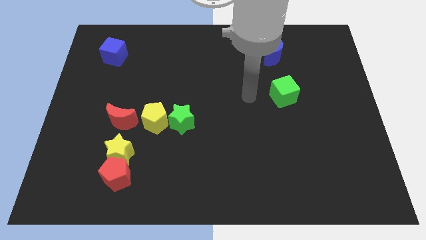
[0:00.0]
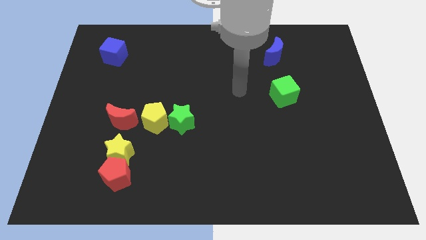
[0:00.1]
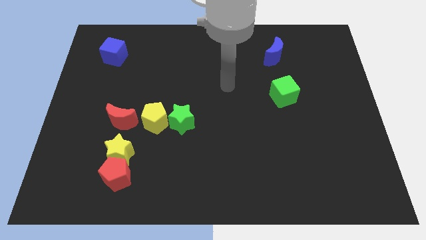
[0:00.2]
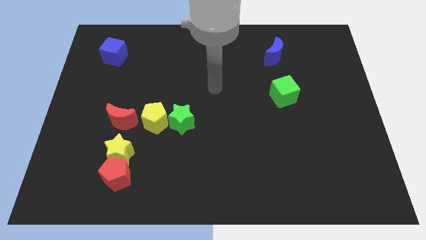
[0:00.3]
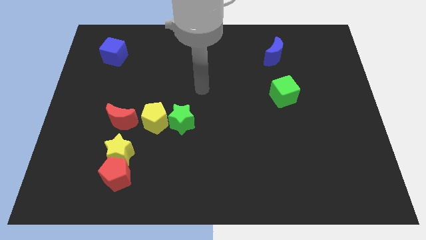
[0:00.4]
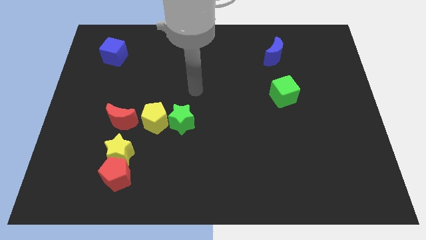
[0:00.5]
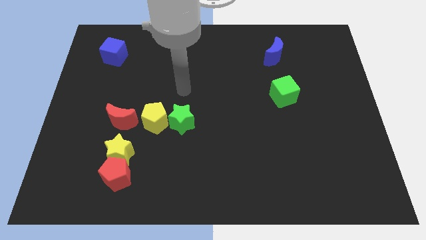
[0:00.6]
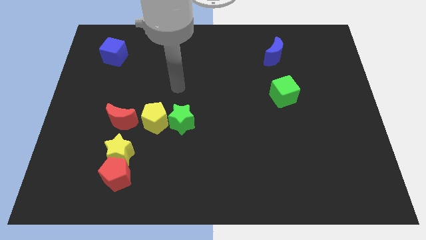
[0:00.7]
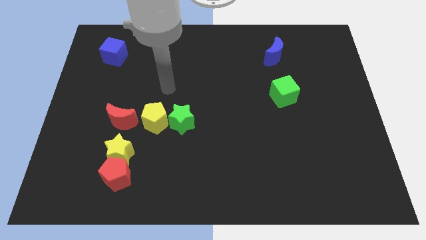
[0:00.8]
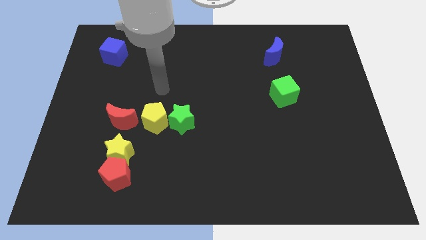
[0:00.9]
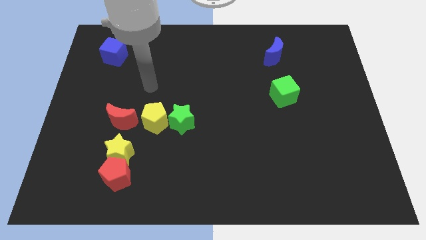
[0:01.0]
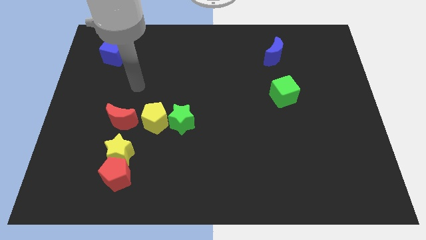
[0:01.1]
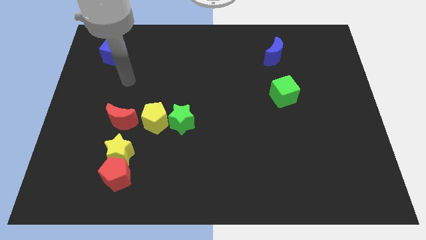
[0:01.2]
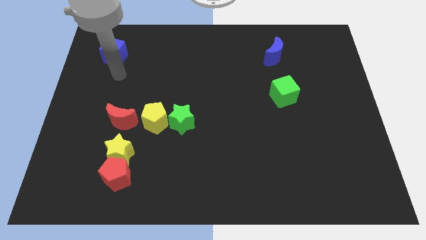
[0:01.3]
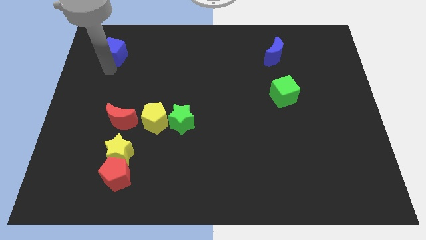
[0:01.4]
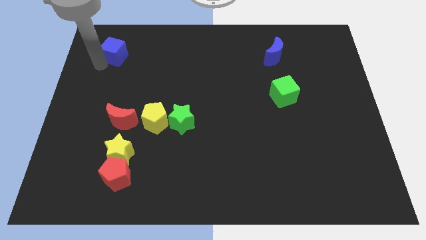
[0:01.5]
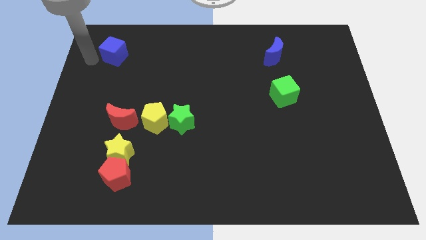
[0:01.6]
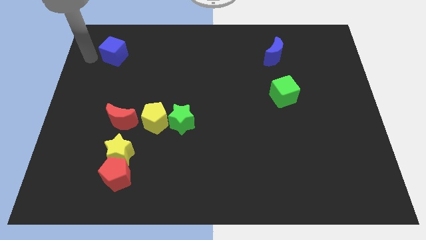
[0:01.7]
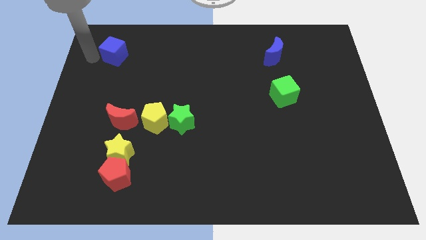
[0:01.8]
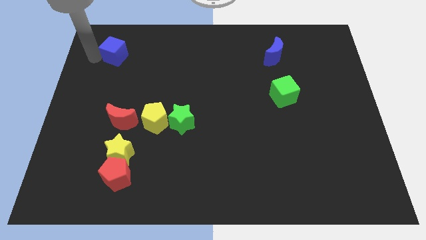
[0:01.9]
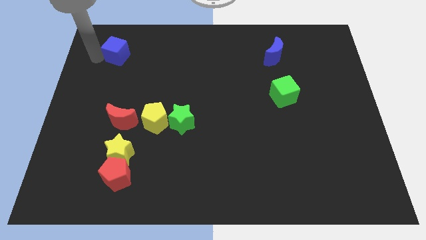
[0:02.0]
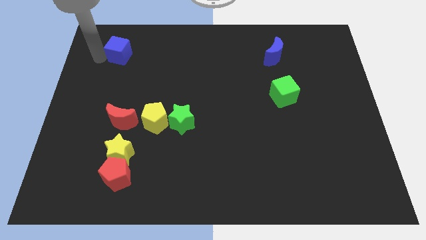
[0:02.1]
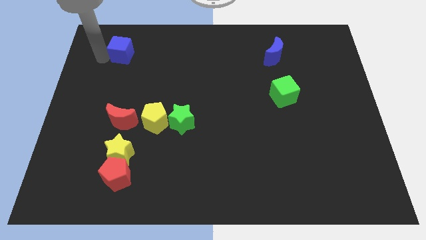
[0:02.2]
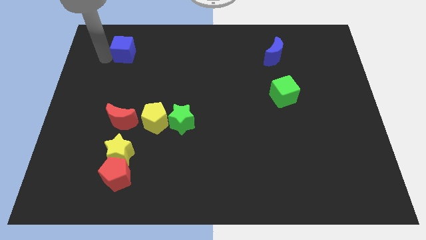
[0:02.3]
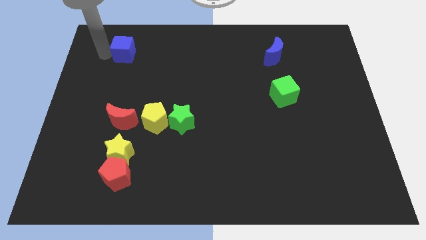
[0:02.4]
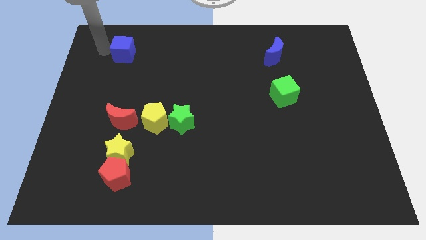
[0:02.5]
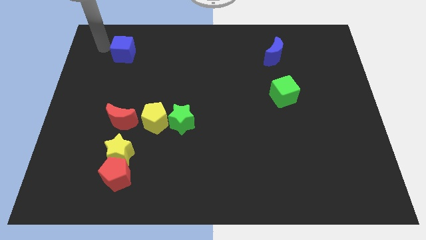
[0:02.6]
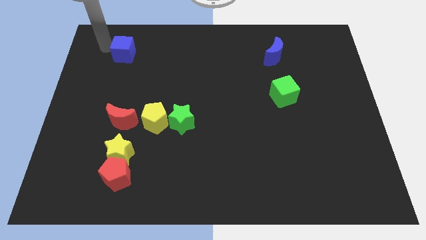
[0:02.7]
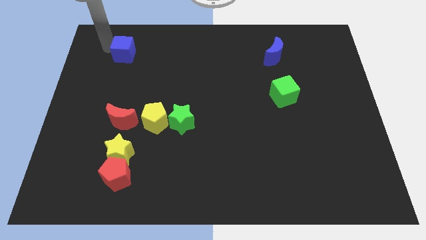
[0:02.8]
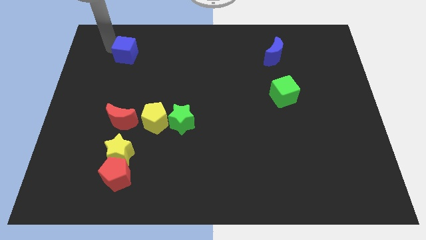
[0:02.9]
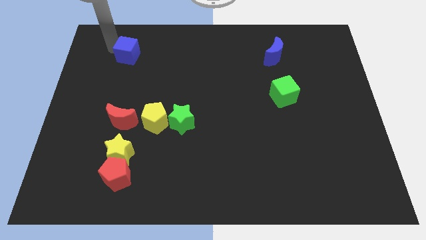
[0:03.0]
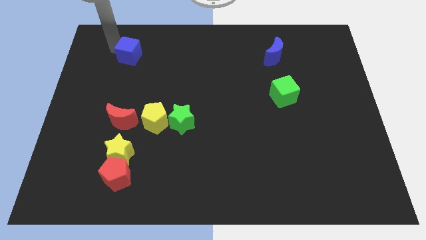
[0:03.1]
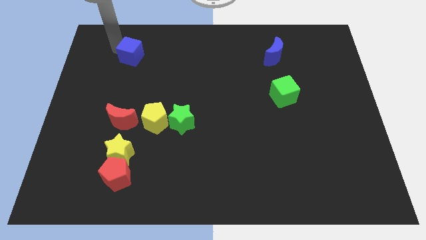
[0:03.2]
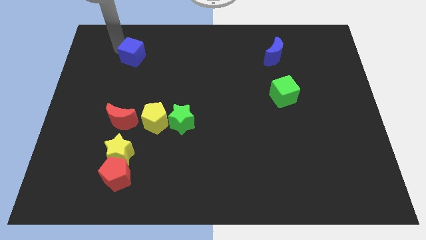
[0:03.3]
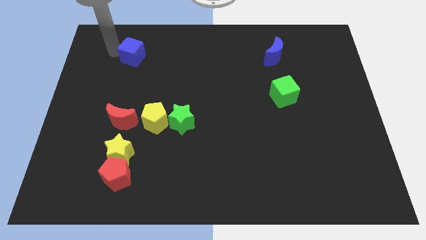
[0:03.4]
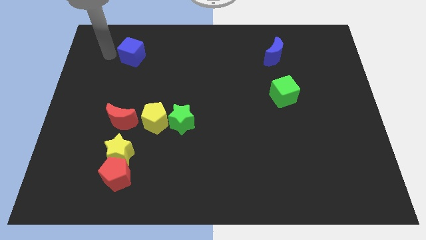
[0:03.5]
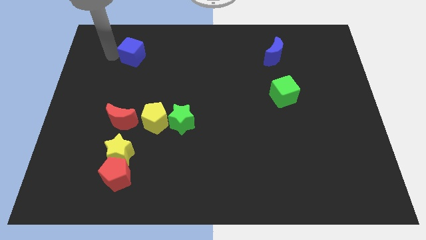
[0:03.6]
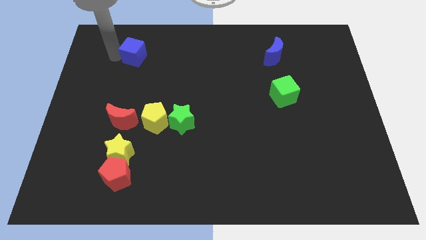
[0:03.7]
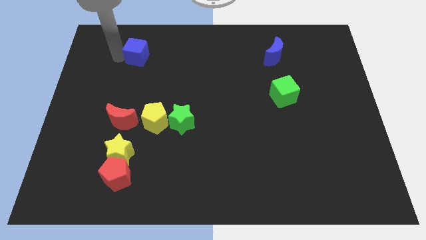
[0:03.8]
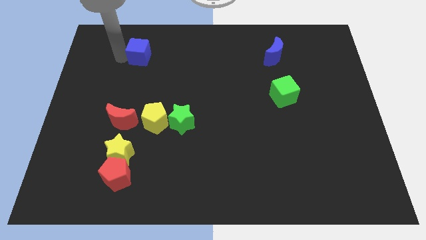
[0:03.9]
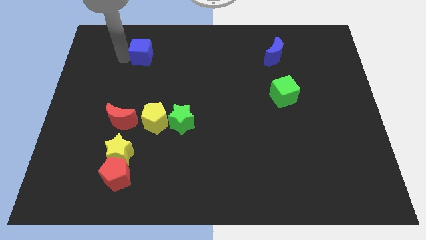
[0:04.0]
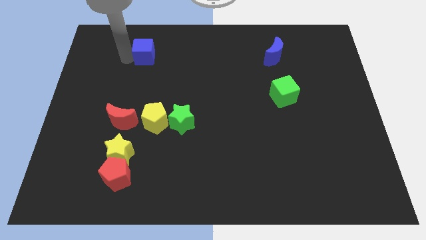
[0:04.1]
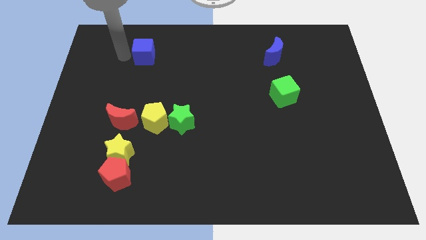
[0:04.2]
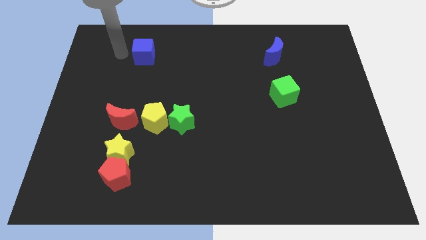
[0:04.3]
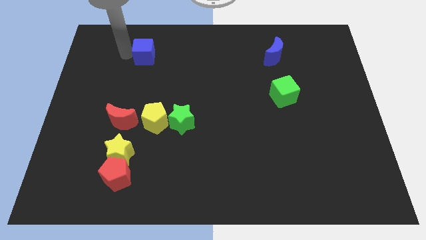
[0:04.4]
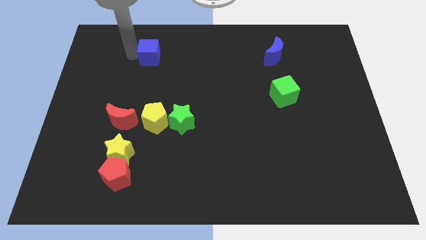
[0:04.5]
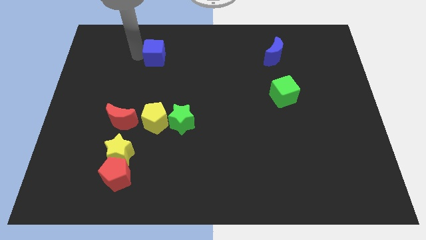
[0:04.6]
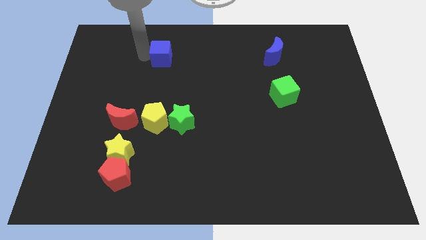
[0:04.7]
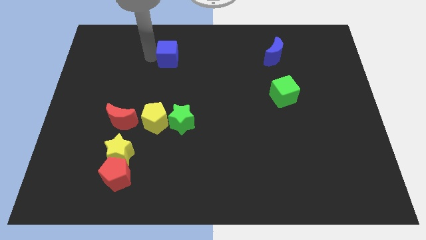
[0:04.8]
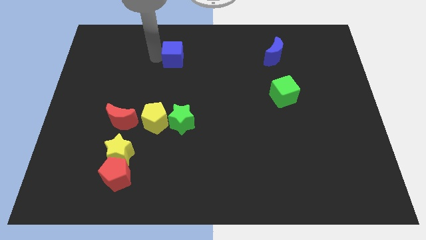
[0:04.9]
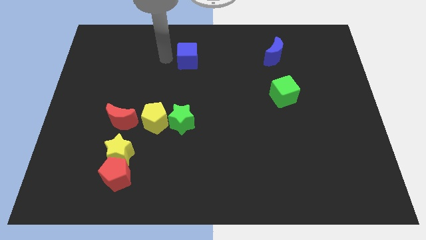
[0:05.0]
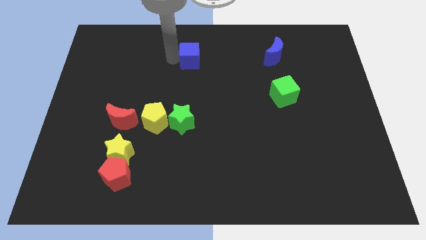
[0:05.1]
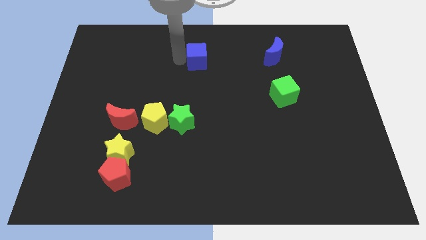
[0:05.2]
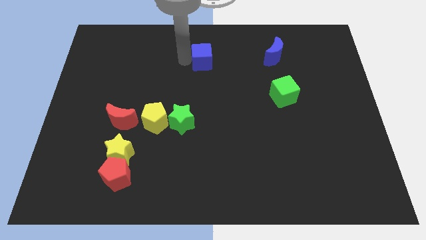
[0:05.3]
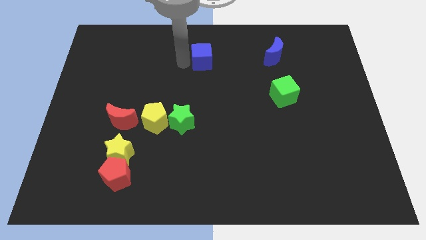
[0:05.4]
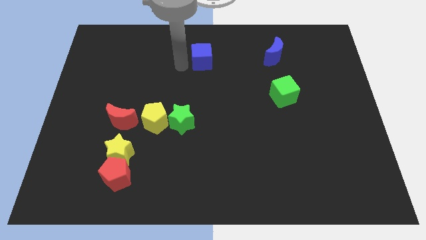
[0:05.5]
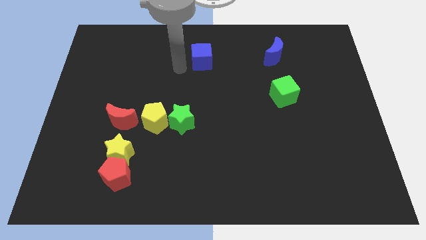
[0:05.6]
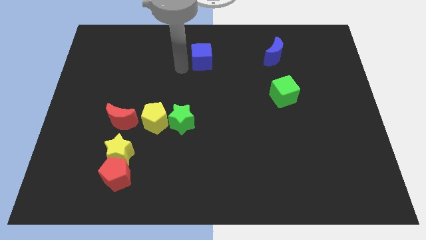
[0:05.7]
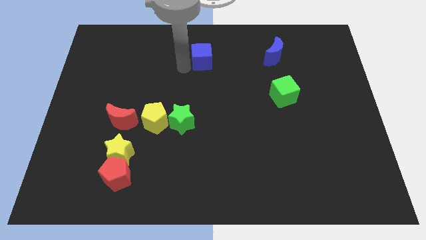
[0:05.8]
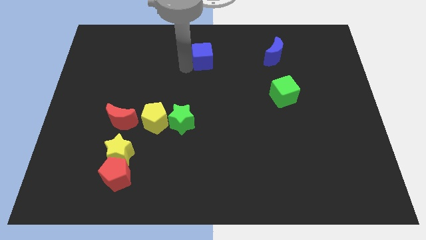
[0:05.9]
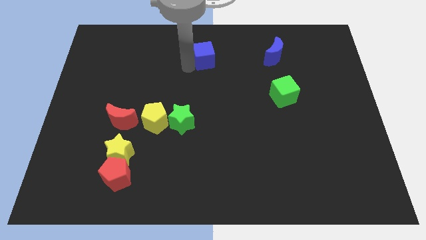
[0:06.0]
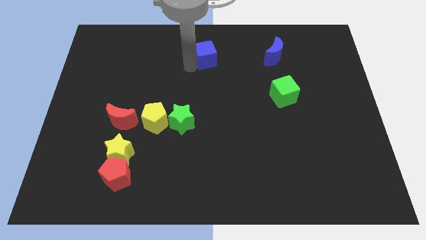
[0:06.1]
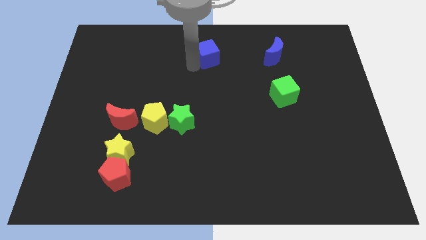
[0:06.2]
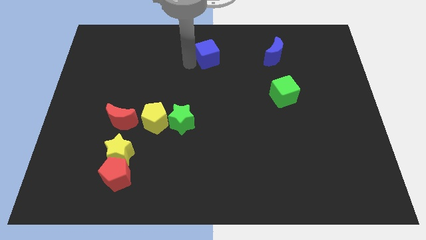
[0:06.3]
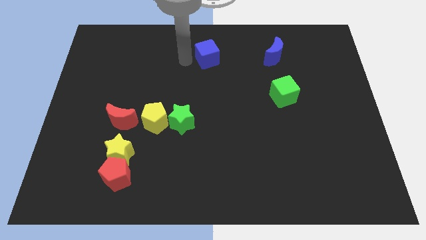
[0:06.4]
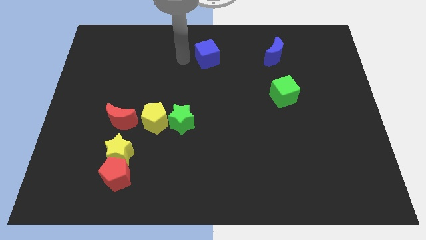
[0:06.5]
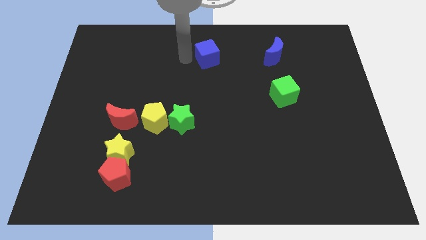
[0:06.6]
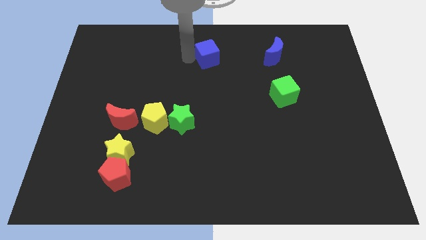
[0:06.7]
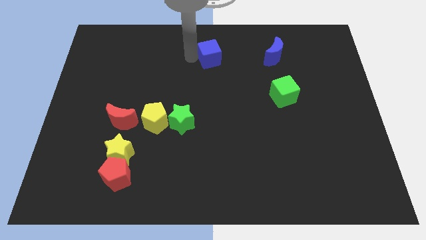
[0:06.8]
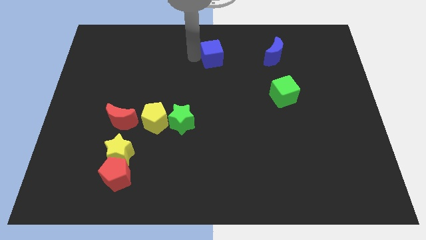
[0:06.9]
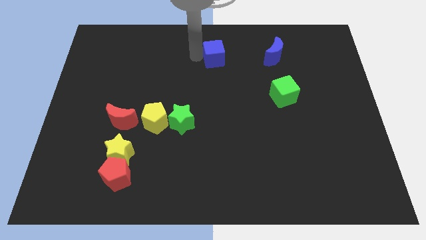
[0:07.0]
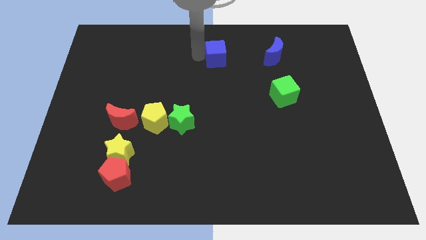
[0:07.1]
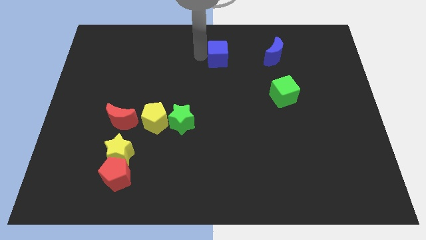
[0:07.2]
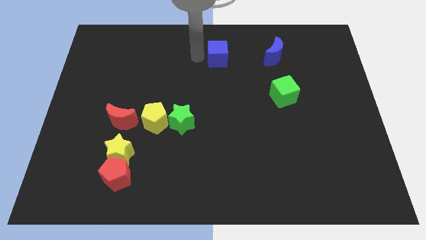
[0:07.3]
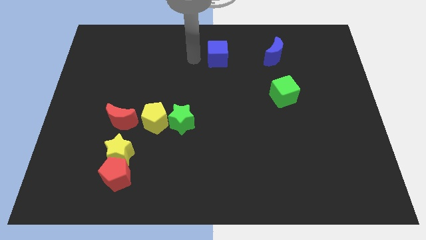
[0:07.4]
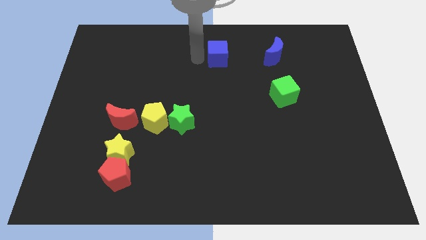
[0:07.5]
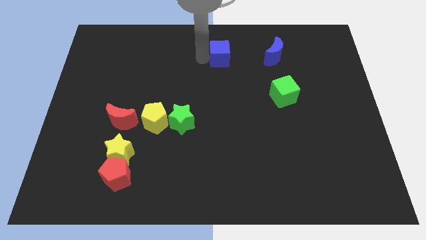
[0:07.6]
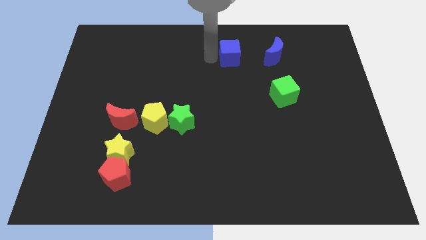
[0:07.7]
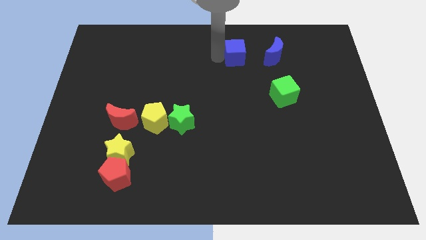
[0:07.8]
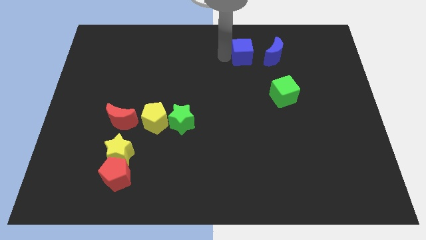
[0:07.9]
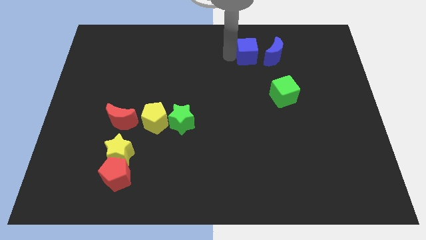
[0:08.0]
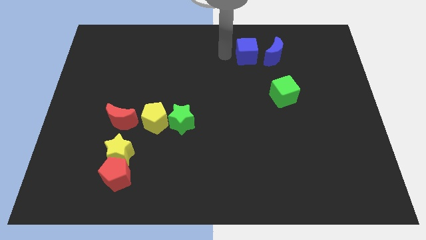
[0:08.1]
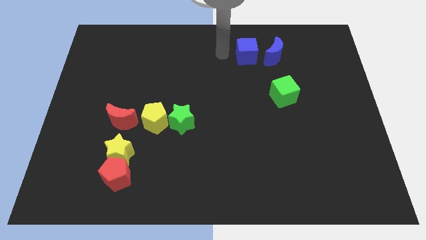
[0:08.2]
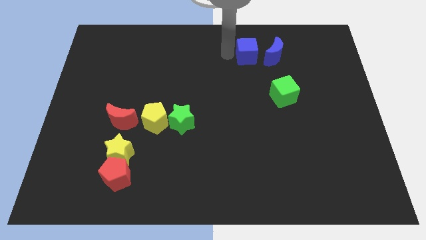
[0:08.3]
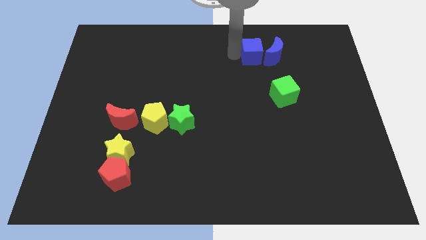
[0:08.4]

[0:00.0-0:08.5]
move the blue cube close to the blue moon
